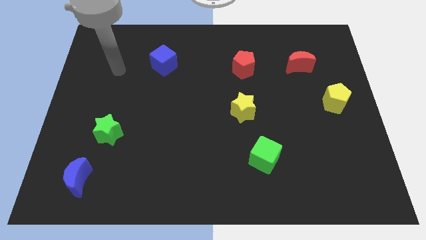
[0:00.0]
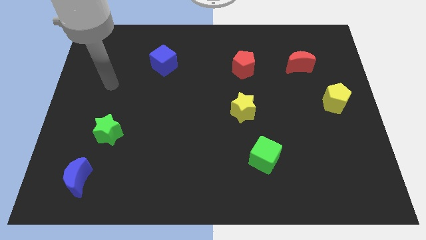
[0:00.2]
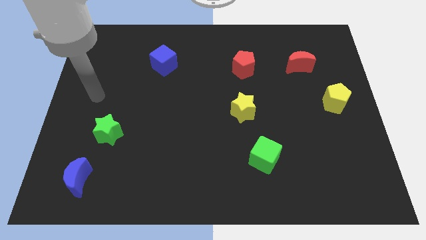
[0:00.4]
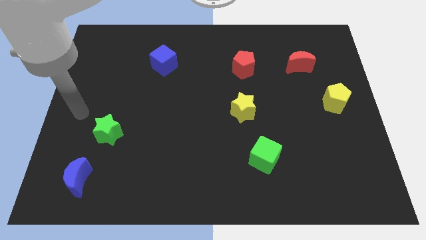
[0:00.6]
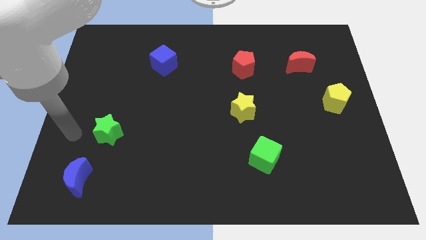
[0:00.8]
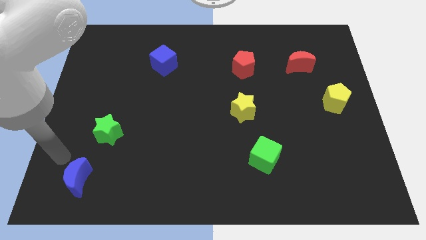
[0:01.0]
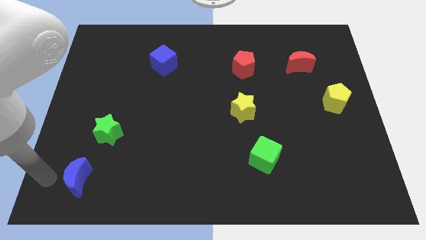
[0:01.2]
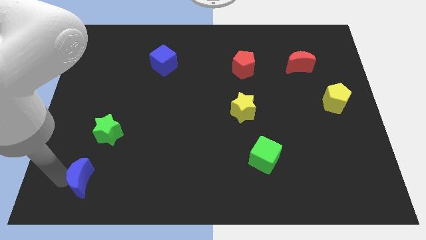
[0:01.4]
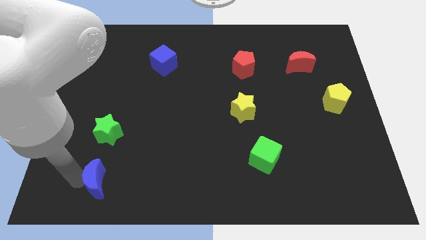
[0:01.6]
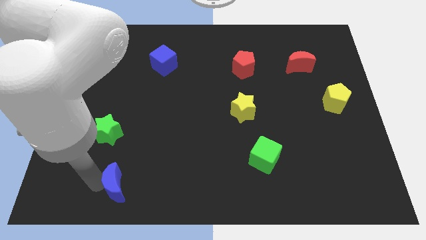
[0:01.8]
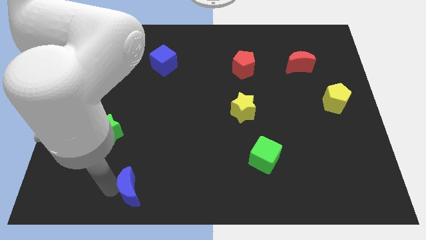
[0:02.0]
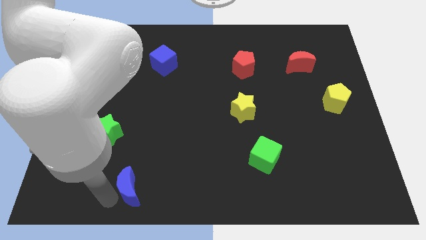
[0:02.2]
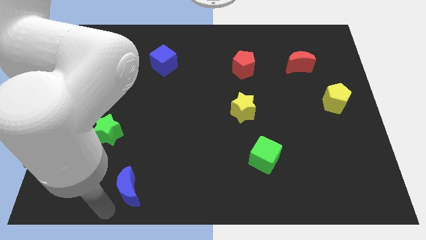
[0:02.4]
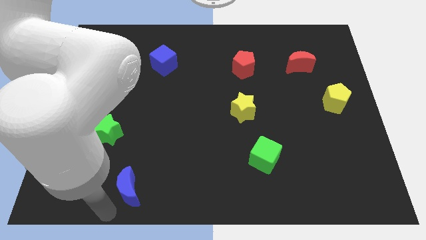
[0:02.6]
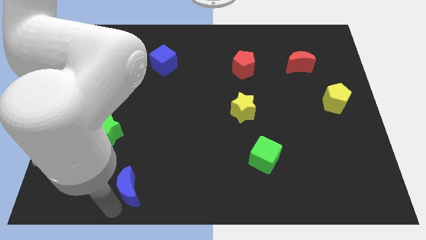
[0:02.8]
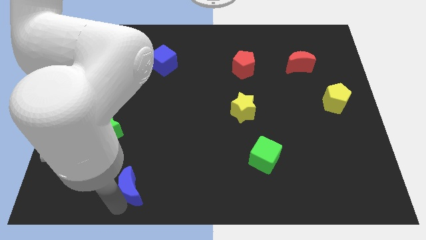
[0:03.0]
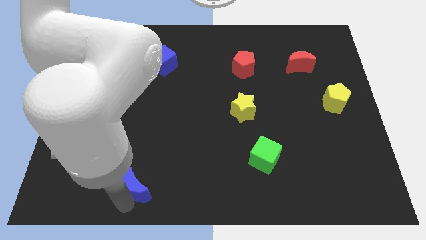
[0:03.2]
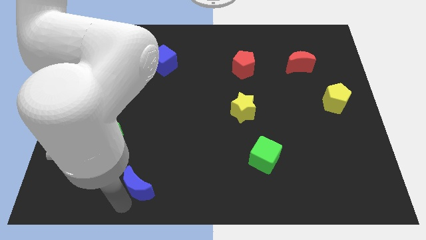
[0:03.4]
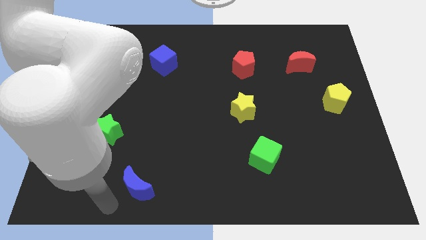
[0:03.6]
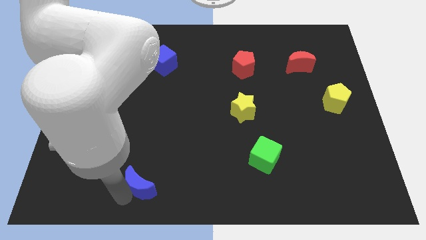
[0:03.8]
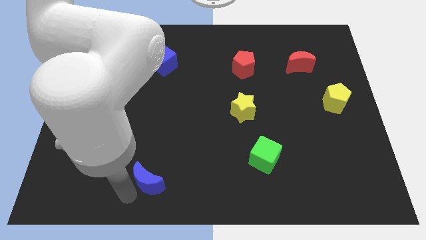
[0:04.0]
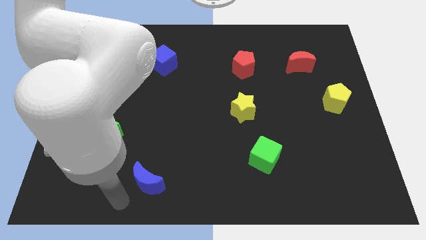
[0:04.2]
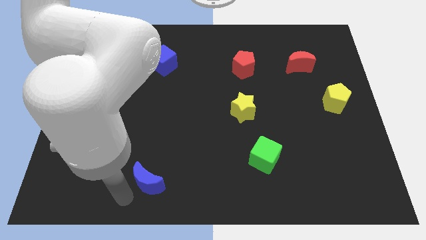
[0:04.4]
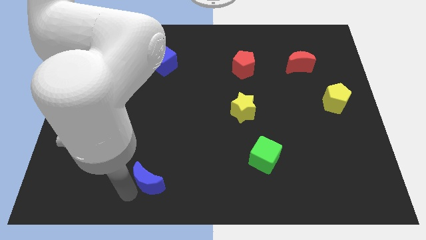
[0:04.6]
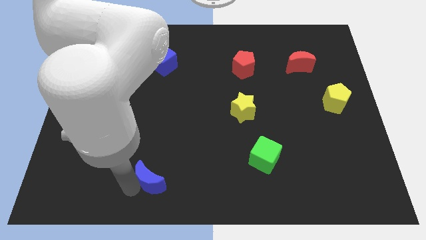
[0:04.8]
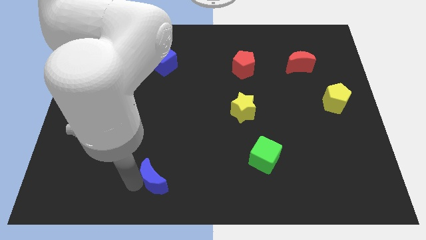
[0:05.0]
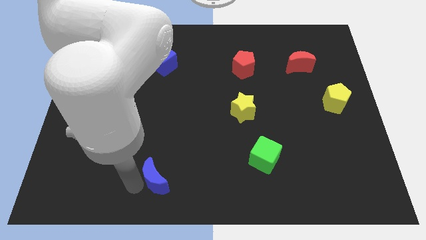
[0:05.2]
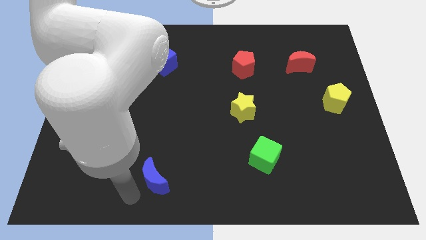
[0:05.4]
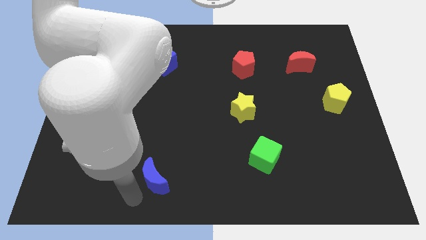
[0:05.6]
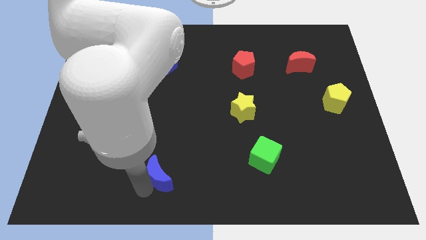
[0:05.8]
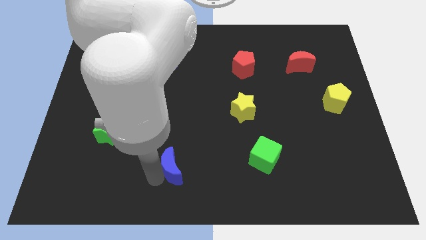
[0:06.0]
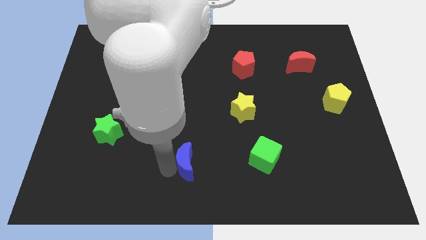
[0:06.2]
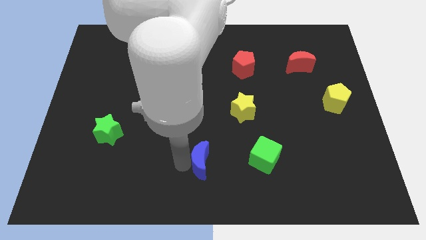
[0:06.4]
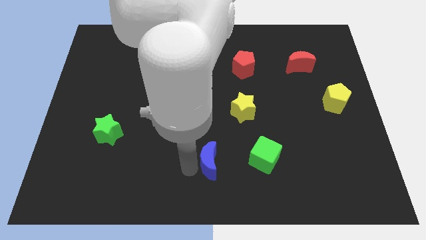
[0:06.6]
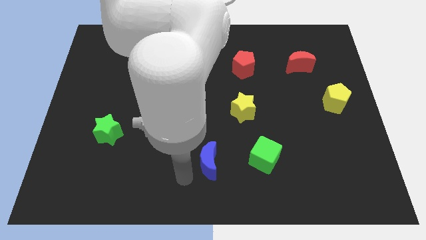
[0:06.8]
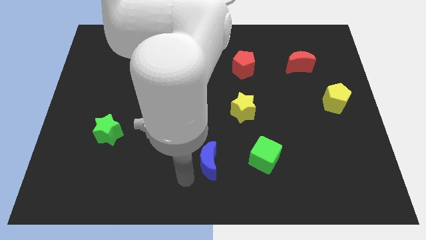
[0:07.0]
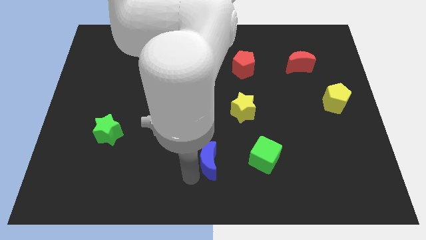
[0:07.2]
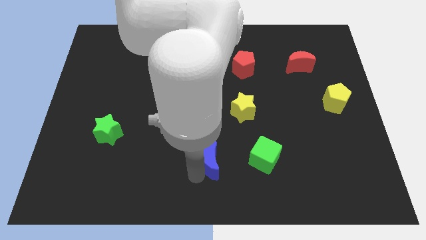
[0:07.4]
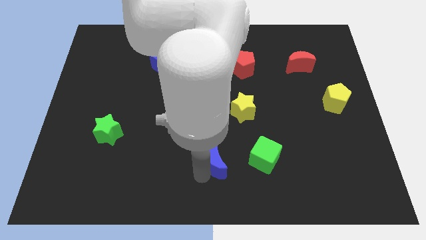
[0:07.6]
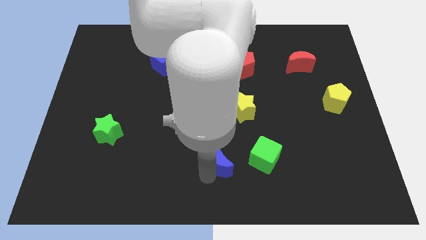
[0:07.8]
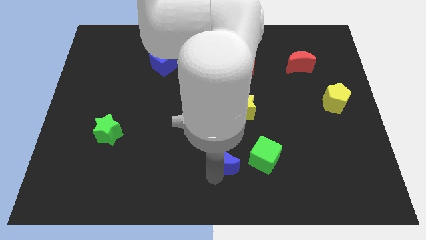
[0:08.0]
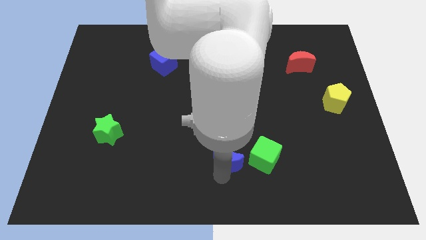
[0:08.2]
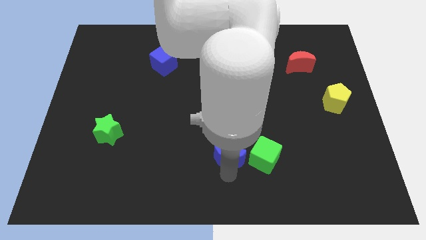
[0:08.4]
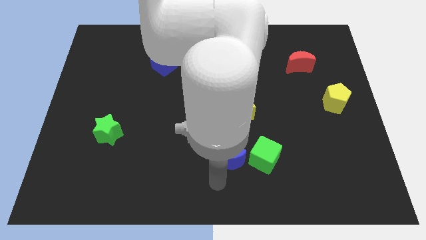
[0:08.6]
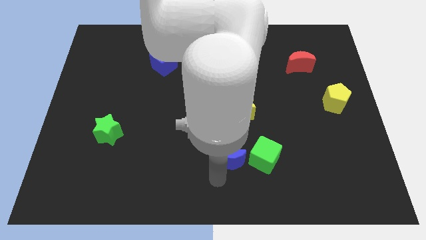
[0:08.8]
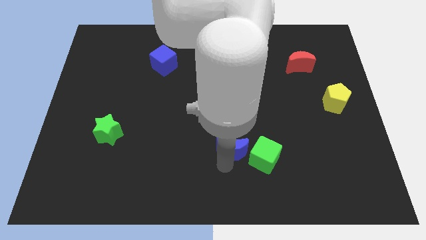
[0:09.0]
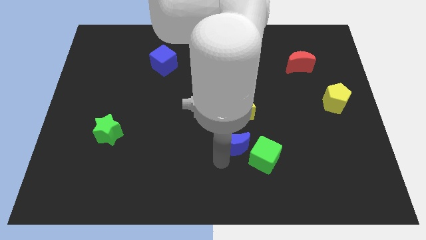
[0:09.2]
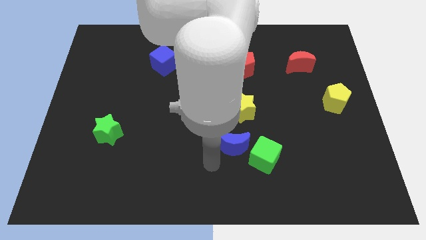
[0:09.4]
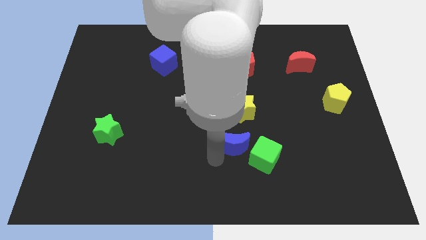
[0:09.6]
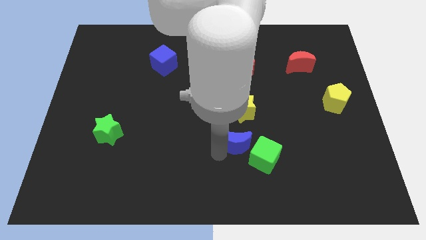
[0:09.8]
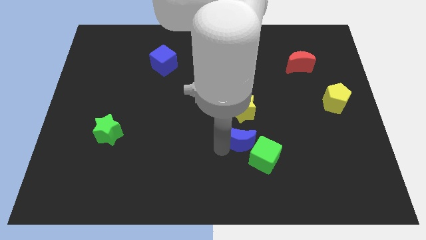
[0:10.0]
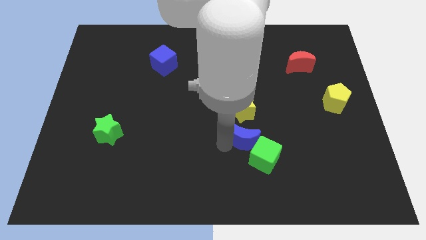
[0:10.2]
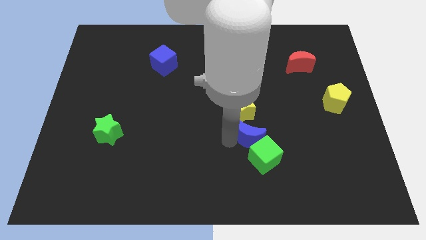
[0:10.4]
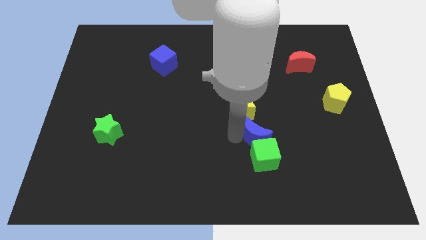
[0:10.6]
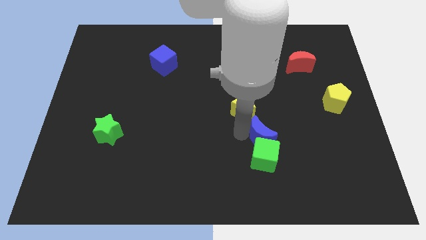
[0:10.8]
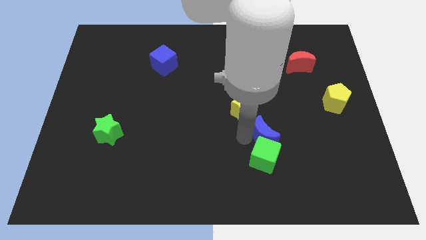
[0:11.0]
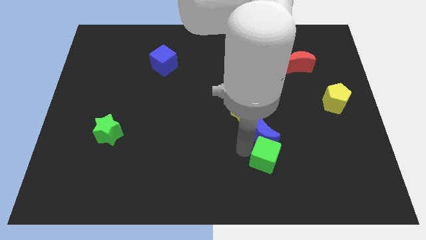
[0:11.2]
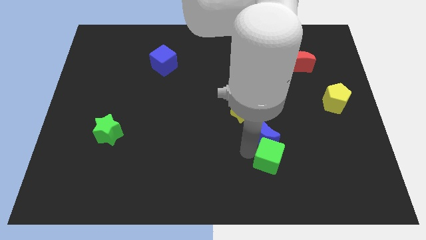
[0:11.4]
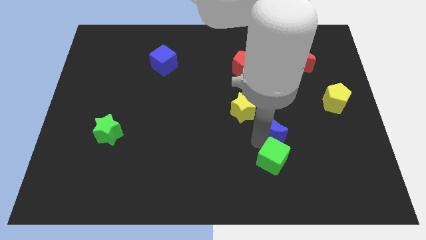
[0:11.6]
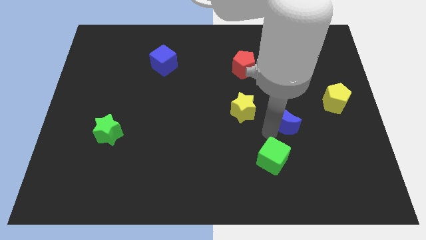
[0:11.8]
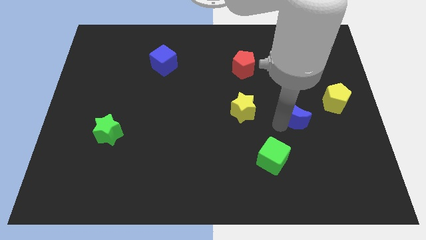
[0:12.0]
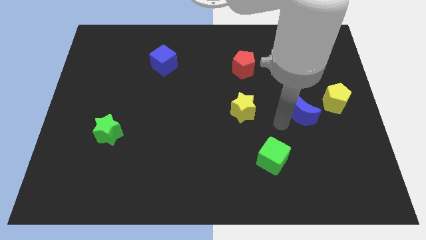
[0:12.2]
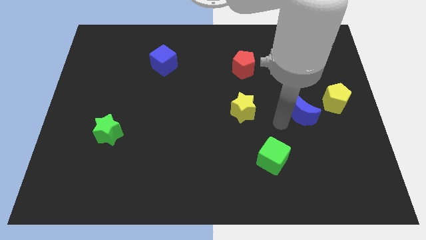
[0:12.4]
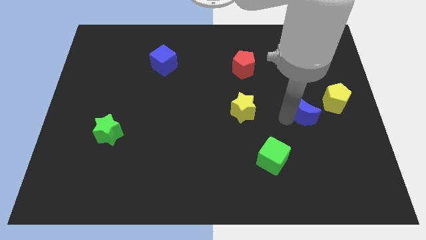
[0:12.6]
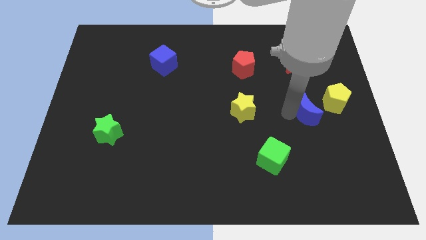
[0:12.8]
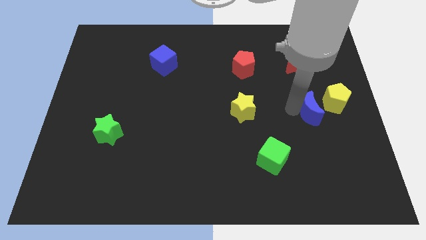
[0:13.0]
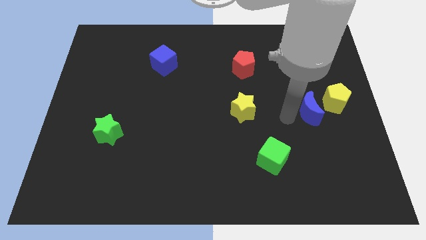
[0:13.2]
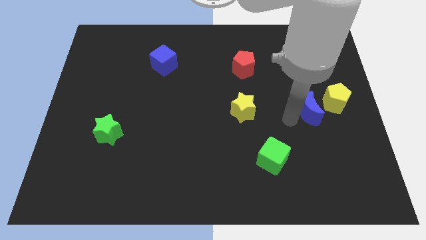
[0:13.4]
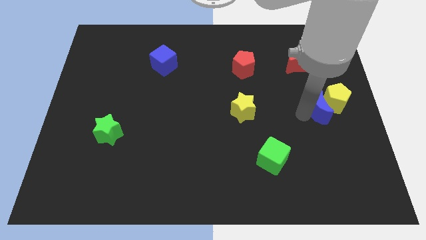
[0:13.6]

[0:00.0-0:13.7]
move the blue moon to the yellow pentagon

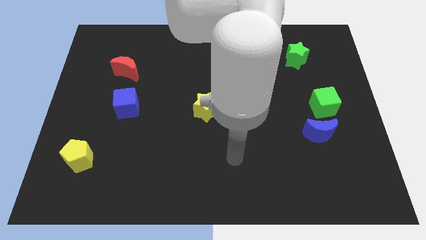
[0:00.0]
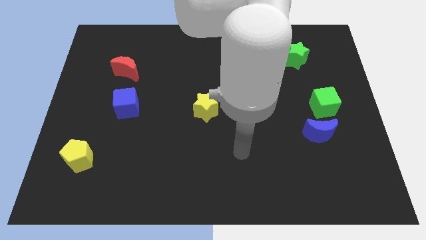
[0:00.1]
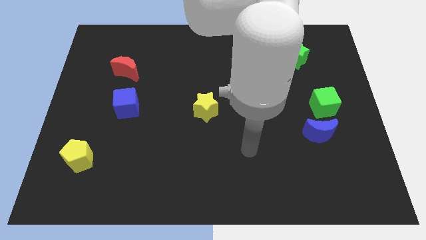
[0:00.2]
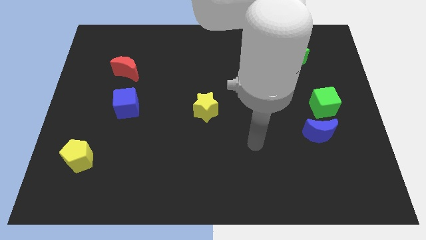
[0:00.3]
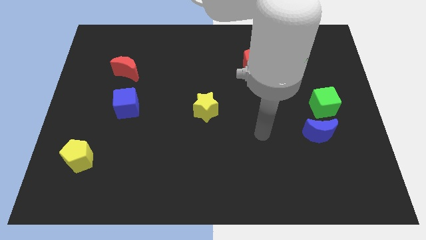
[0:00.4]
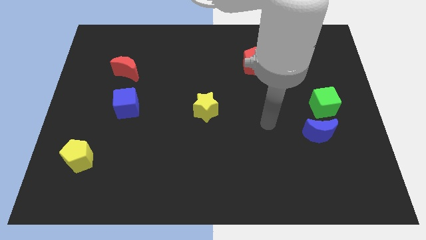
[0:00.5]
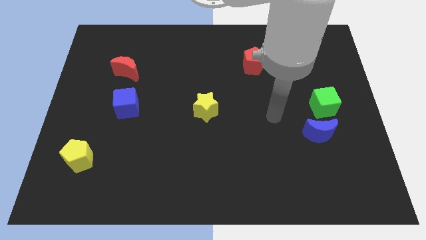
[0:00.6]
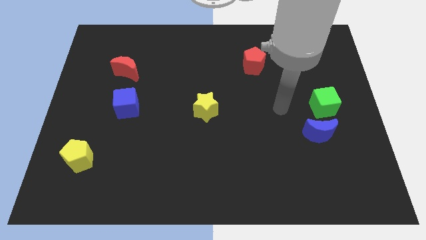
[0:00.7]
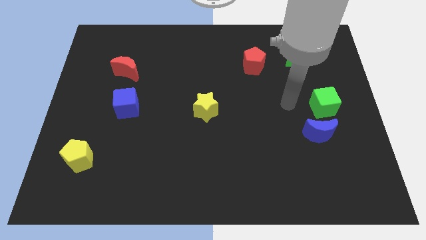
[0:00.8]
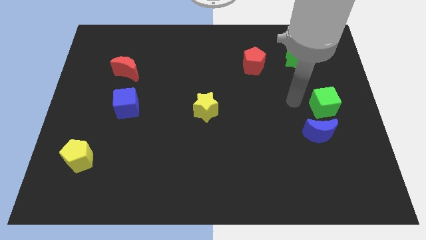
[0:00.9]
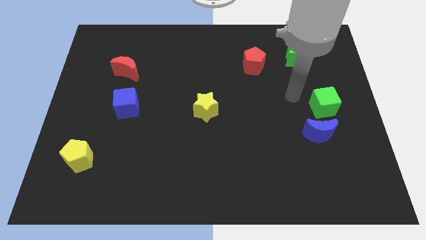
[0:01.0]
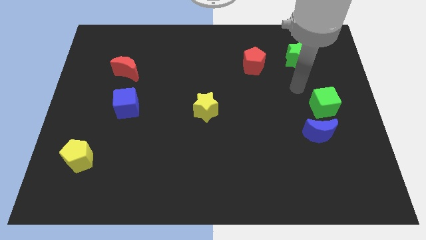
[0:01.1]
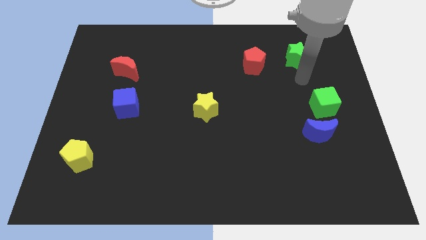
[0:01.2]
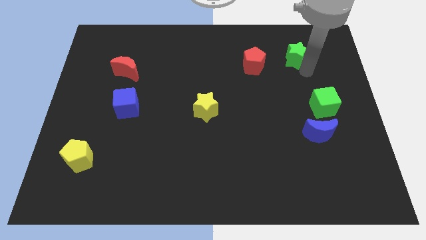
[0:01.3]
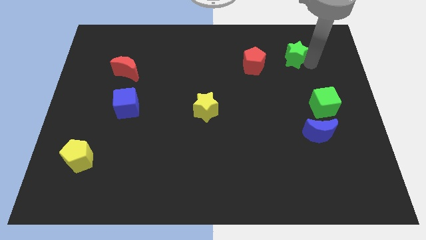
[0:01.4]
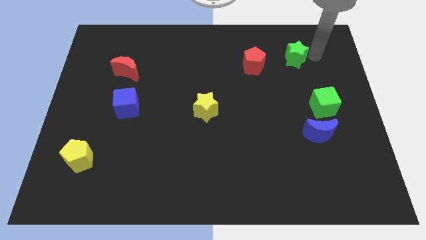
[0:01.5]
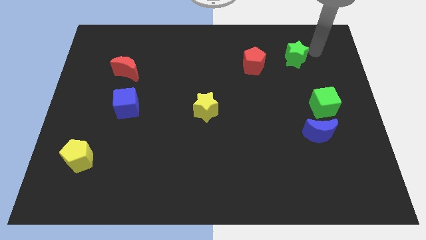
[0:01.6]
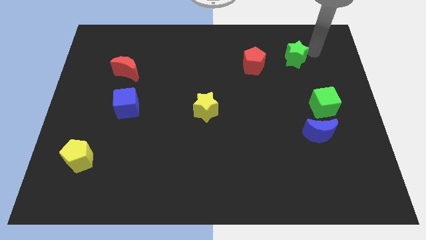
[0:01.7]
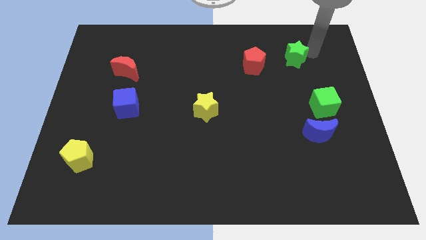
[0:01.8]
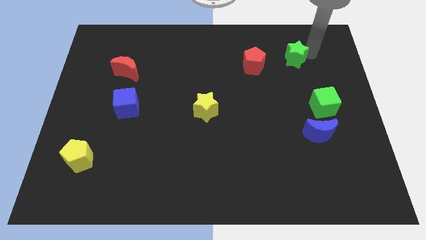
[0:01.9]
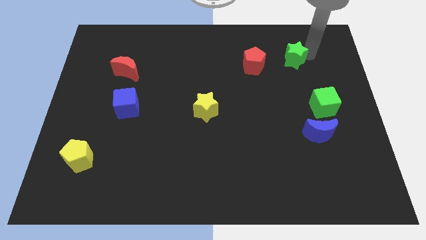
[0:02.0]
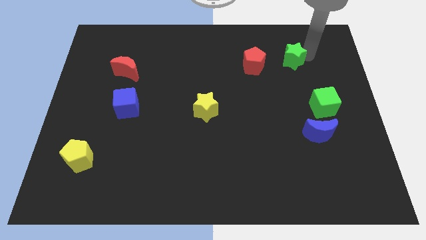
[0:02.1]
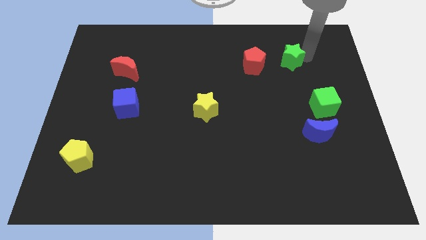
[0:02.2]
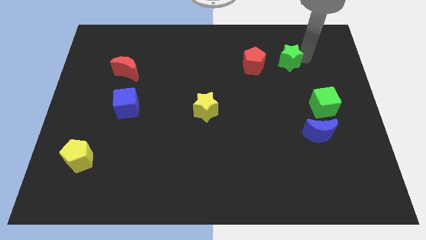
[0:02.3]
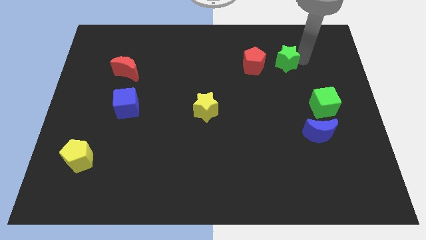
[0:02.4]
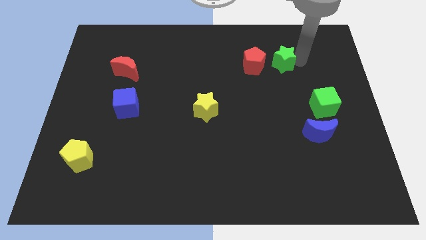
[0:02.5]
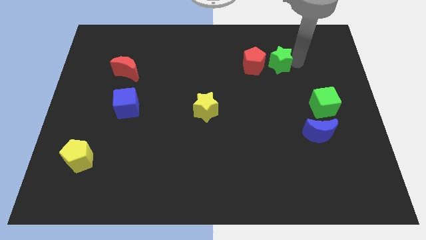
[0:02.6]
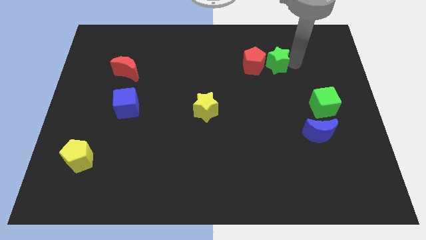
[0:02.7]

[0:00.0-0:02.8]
slide the green star to the red pentagon
